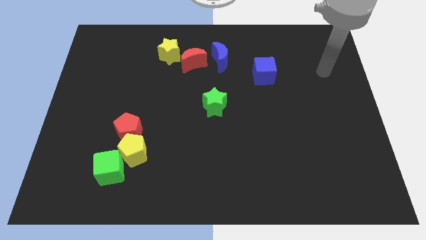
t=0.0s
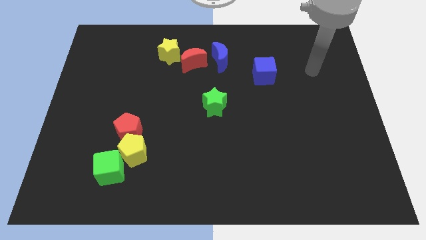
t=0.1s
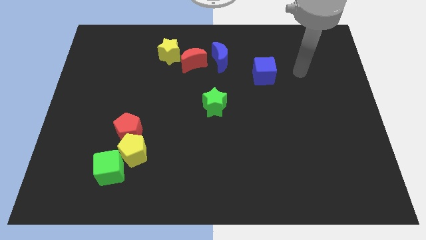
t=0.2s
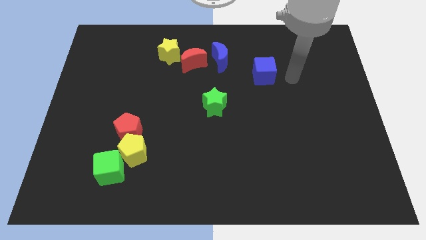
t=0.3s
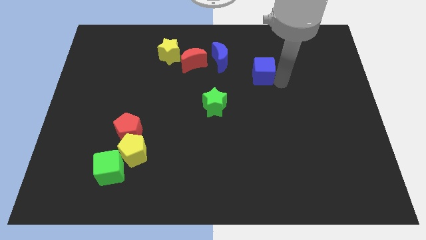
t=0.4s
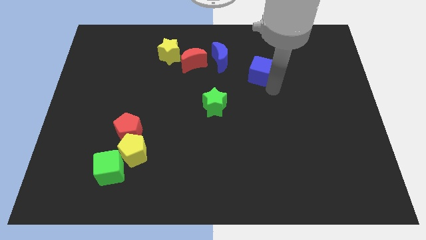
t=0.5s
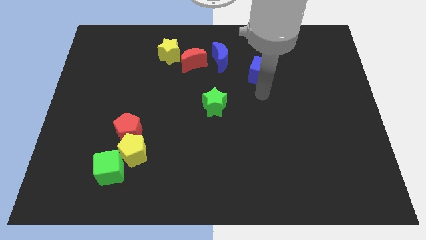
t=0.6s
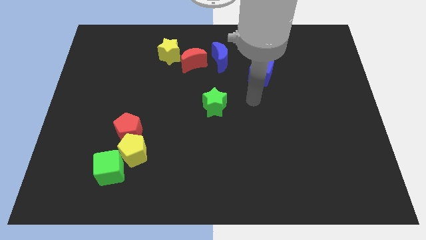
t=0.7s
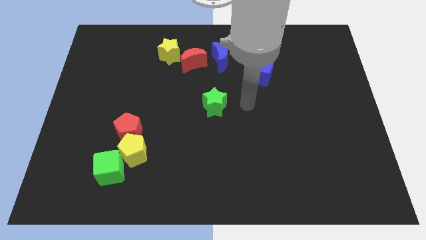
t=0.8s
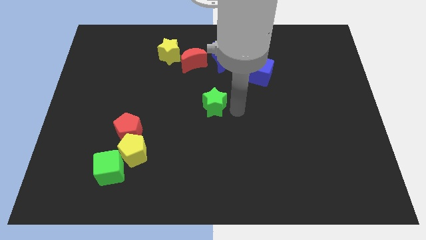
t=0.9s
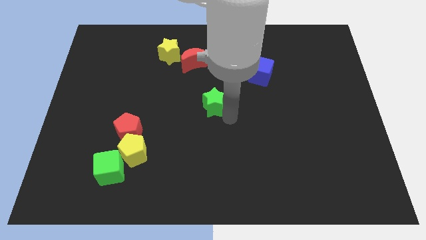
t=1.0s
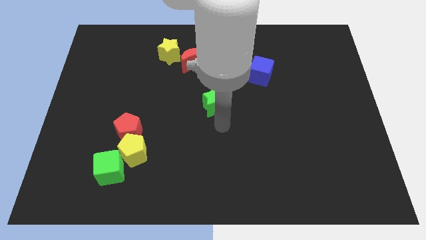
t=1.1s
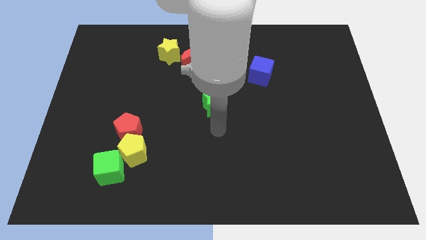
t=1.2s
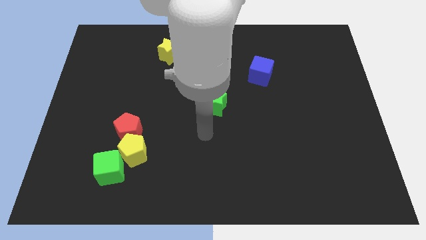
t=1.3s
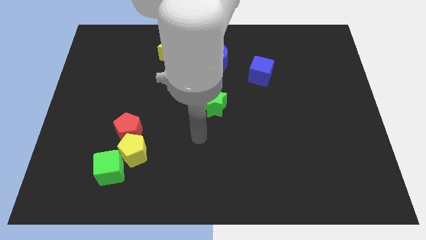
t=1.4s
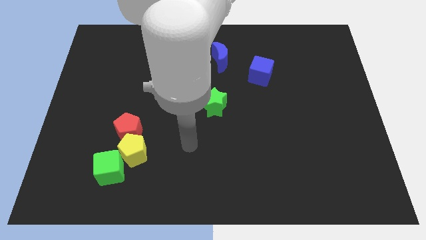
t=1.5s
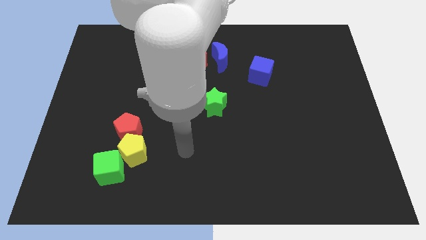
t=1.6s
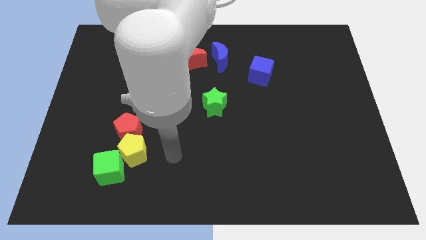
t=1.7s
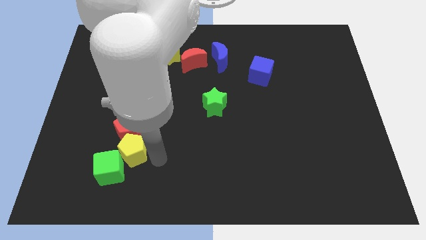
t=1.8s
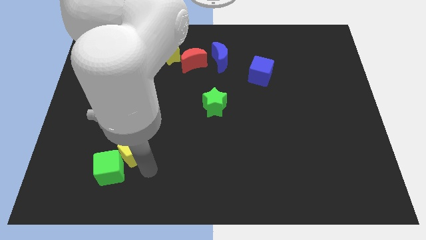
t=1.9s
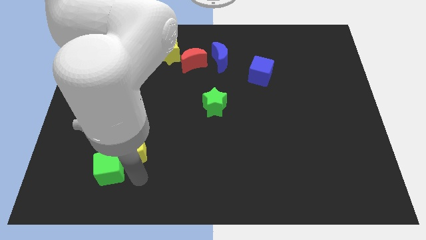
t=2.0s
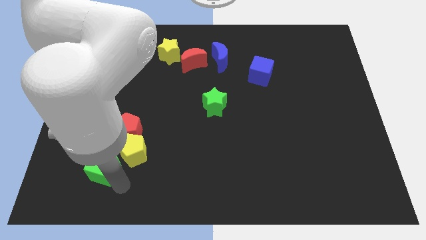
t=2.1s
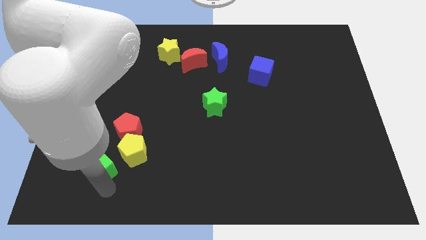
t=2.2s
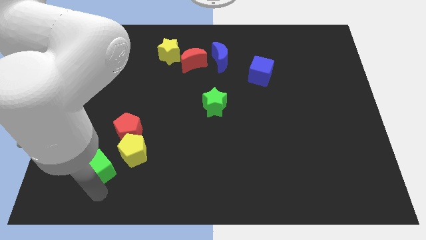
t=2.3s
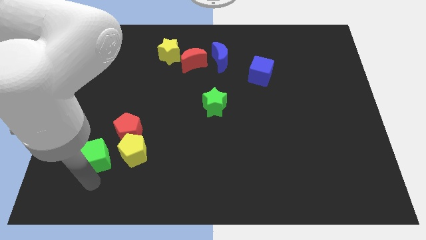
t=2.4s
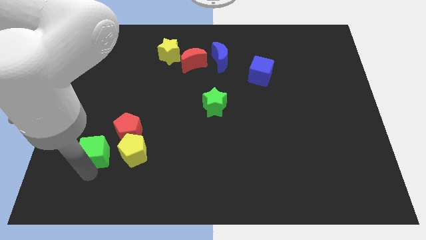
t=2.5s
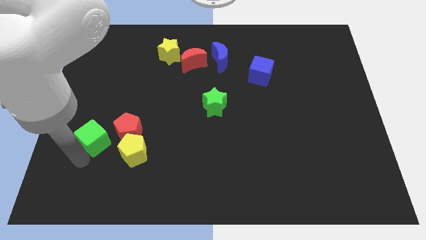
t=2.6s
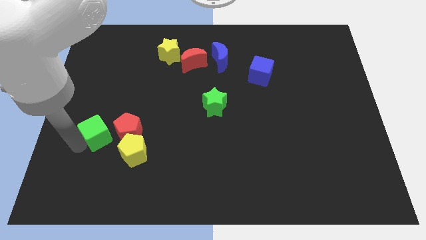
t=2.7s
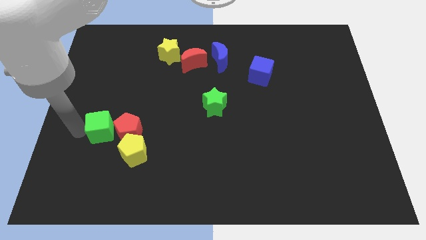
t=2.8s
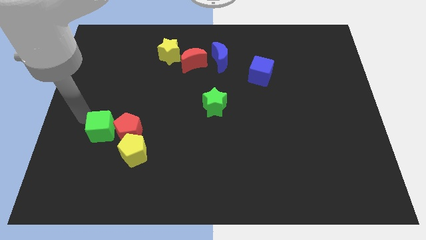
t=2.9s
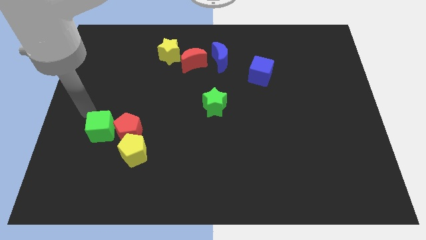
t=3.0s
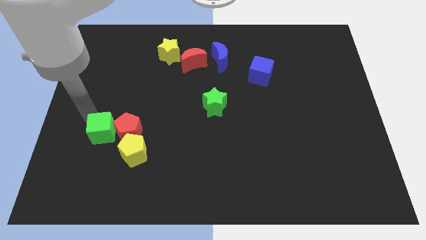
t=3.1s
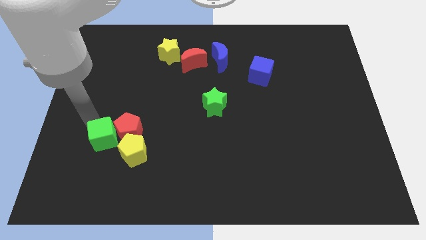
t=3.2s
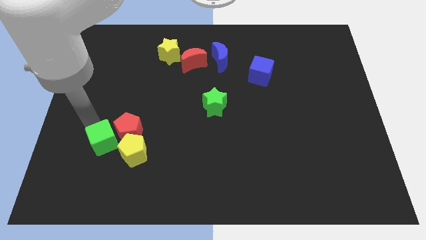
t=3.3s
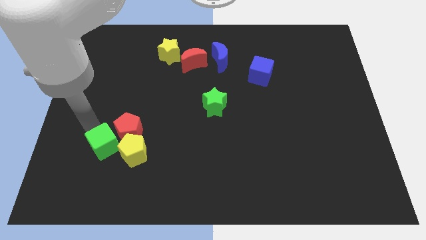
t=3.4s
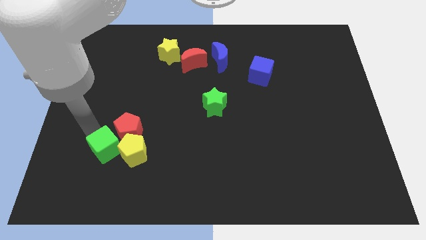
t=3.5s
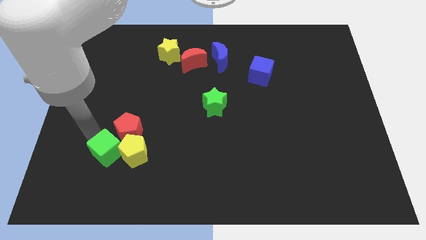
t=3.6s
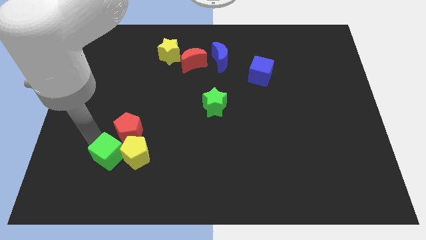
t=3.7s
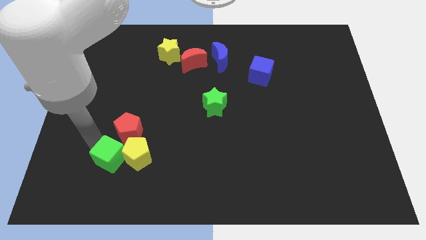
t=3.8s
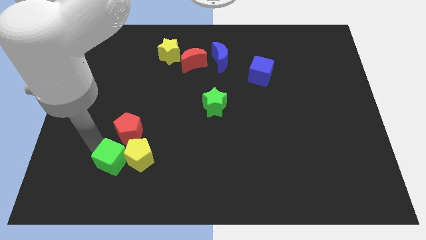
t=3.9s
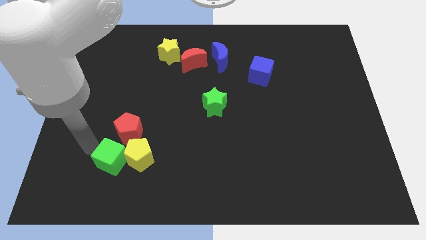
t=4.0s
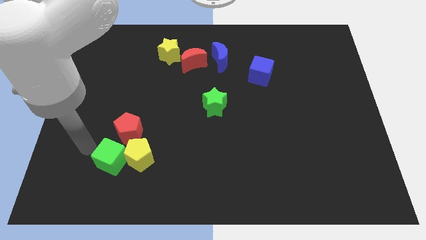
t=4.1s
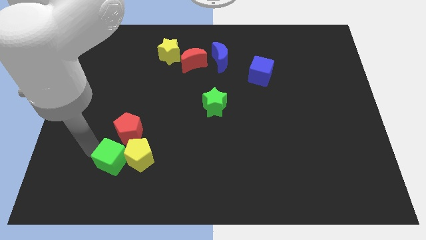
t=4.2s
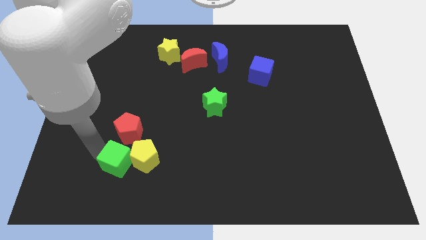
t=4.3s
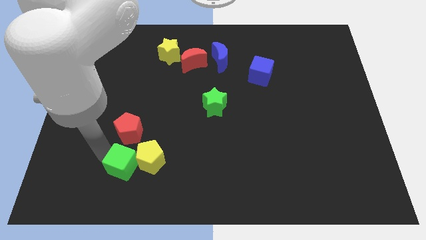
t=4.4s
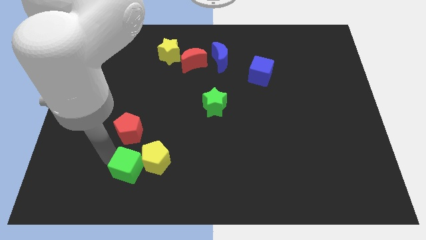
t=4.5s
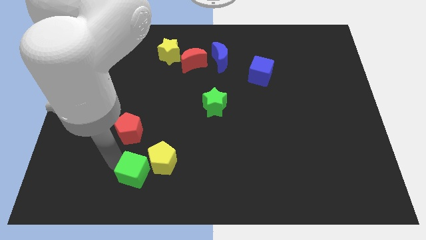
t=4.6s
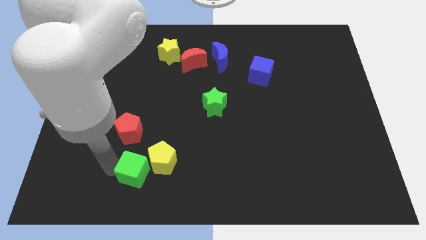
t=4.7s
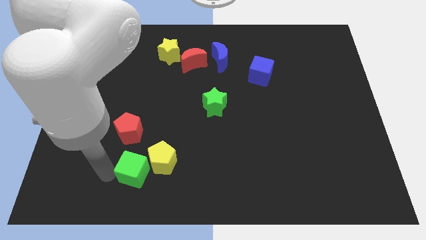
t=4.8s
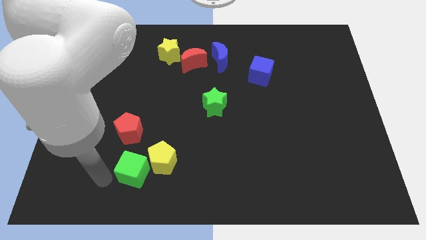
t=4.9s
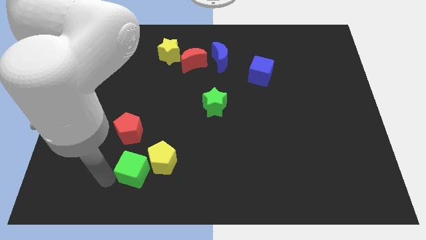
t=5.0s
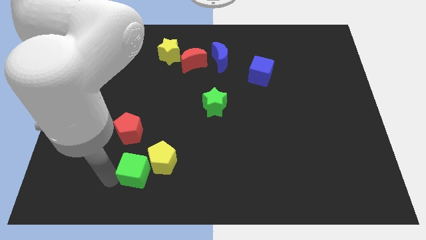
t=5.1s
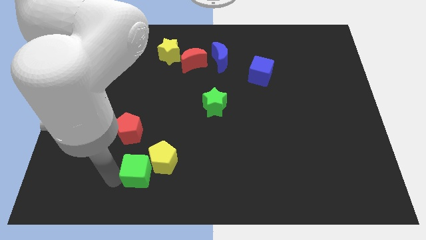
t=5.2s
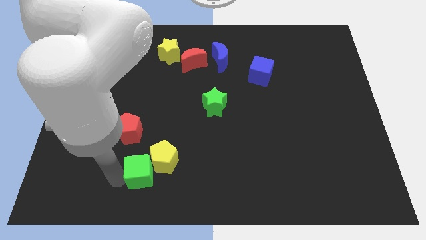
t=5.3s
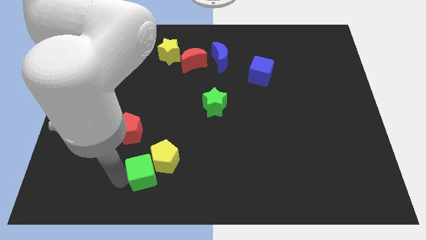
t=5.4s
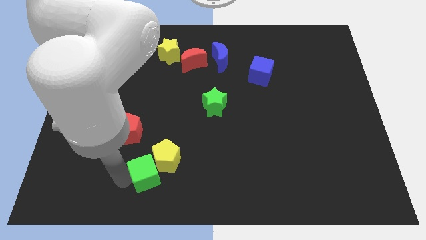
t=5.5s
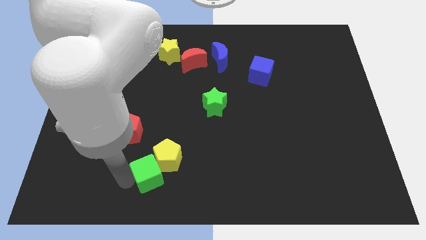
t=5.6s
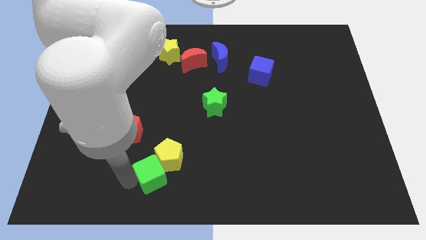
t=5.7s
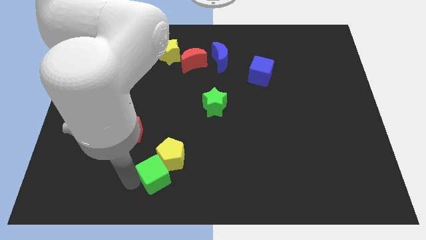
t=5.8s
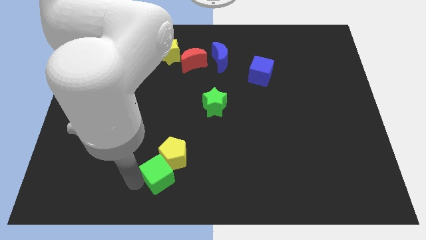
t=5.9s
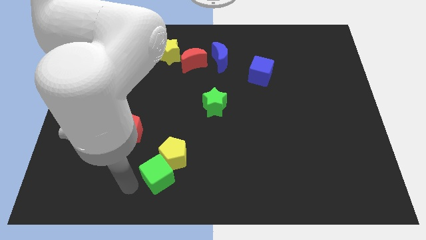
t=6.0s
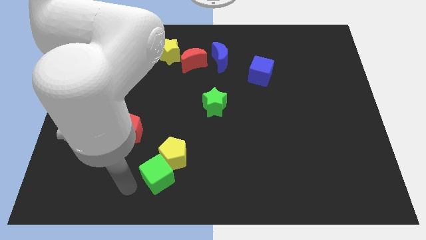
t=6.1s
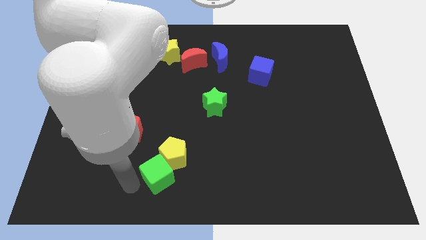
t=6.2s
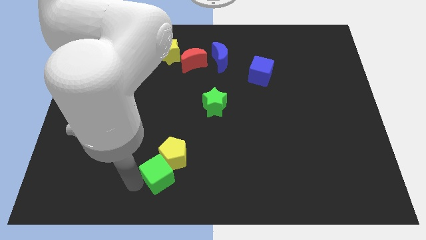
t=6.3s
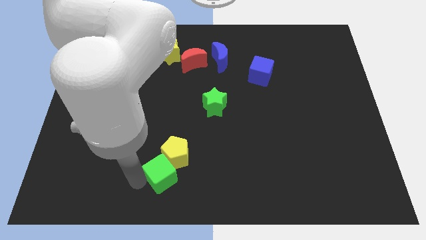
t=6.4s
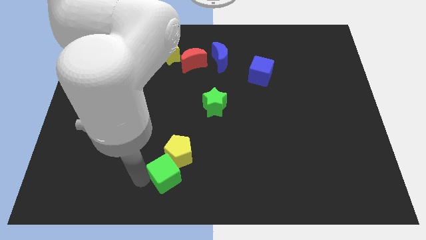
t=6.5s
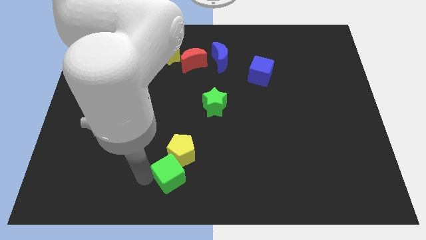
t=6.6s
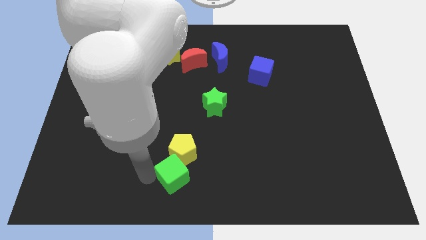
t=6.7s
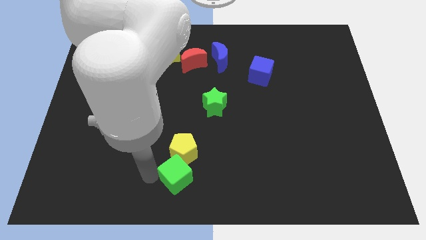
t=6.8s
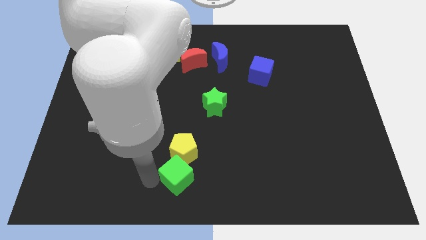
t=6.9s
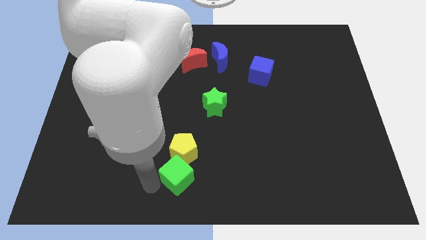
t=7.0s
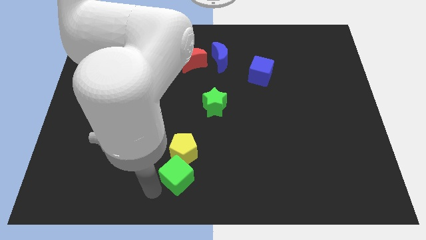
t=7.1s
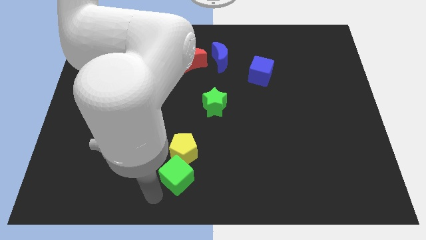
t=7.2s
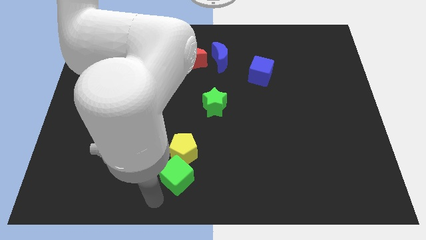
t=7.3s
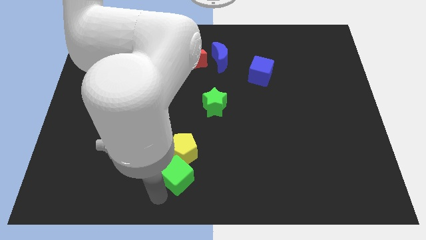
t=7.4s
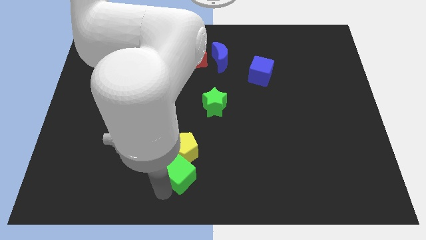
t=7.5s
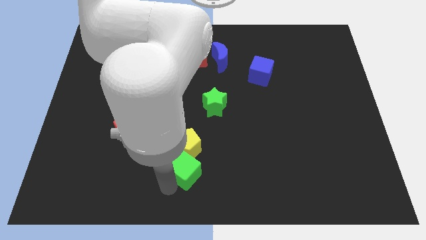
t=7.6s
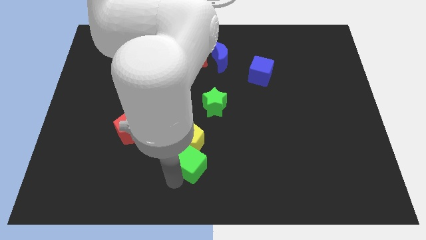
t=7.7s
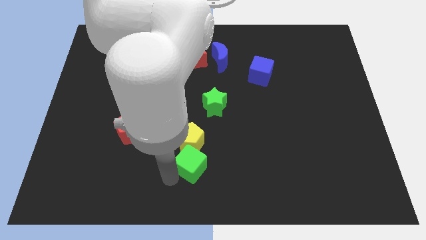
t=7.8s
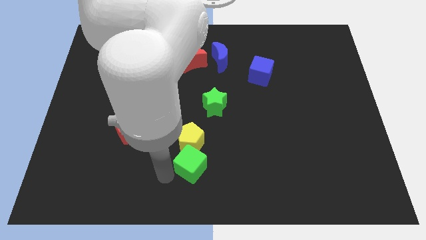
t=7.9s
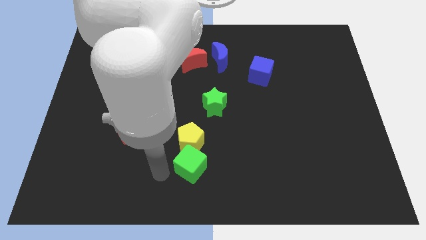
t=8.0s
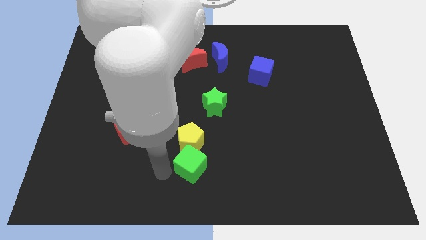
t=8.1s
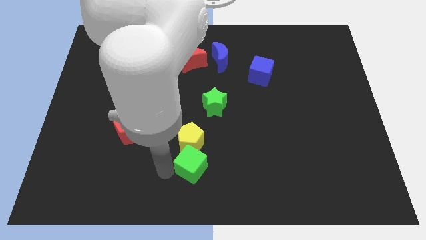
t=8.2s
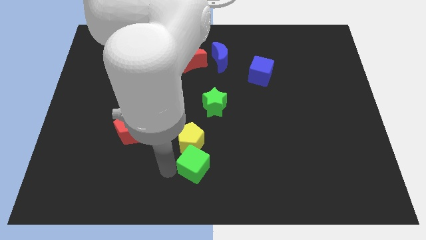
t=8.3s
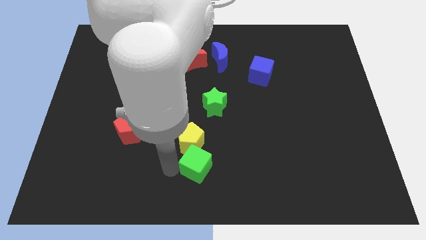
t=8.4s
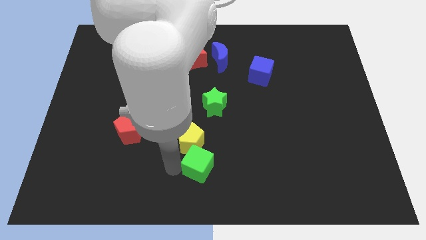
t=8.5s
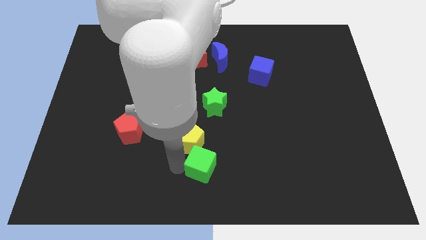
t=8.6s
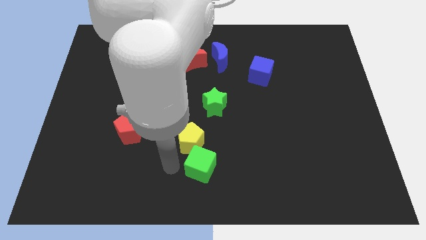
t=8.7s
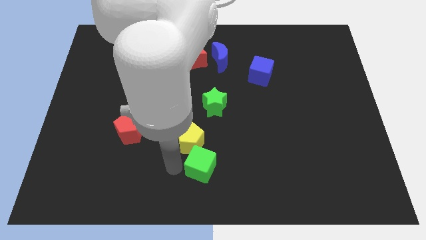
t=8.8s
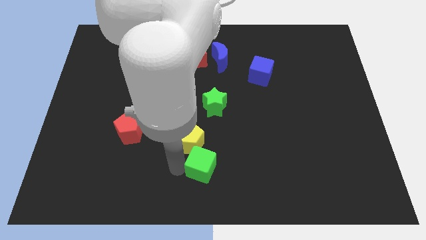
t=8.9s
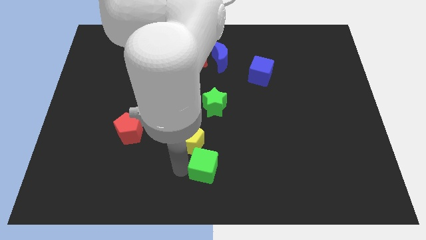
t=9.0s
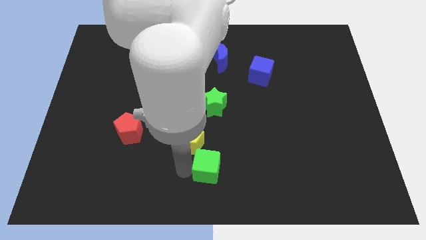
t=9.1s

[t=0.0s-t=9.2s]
move the green cube right
